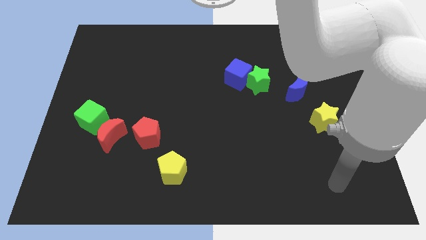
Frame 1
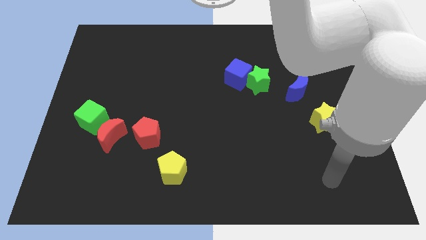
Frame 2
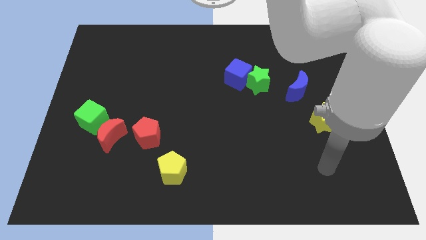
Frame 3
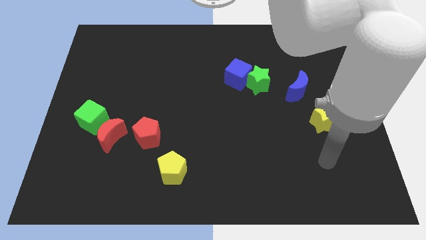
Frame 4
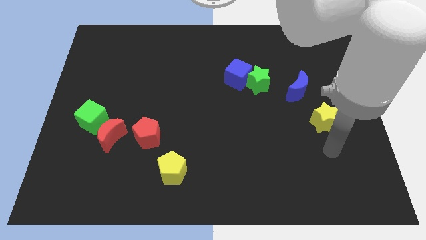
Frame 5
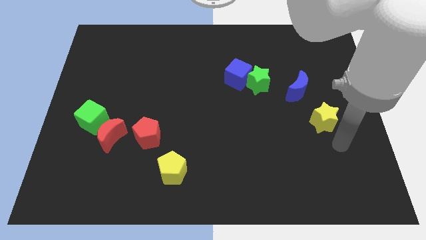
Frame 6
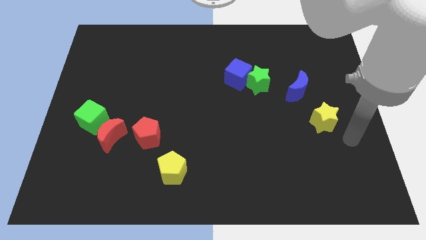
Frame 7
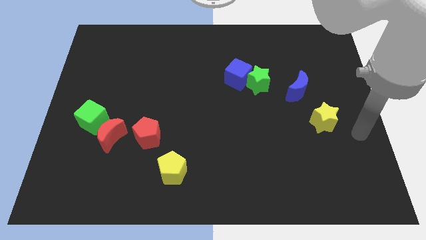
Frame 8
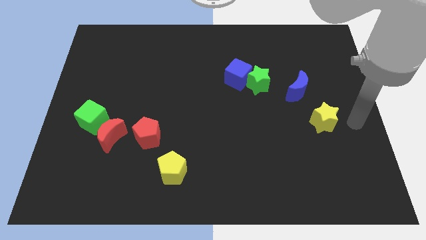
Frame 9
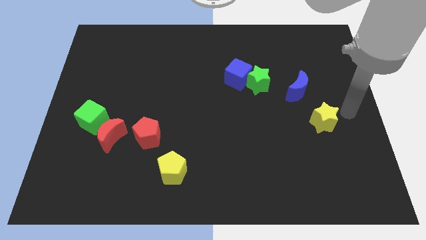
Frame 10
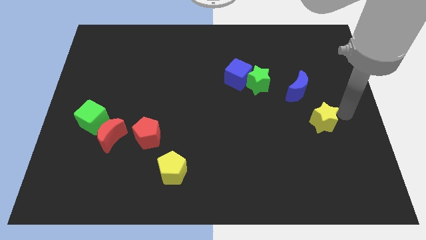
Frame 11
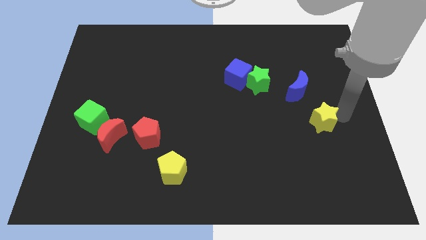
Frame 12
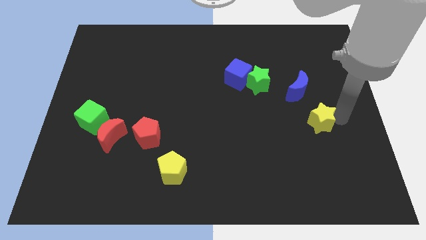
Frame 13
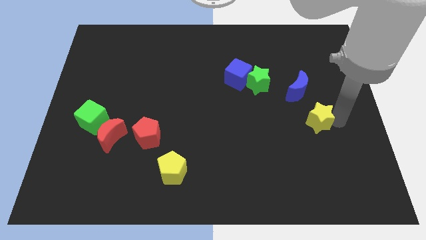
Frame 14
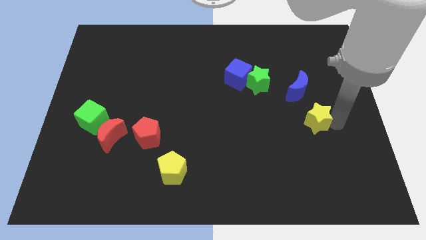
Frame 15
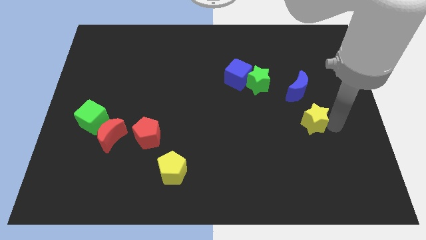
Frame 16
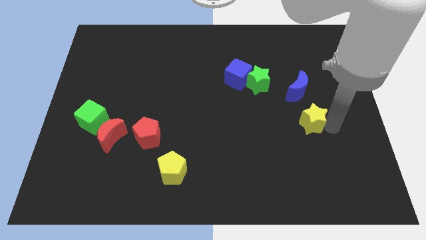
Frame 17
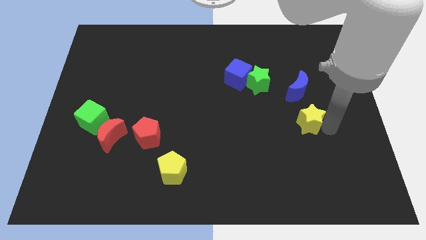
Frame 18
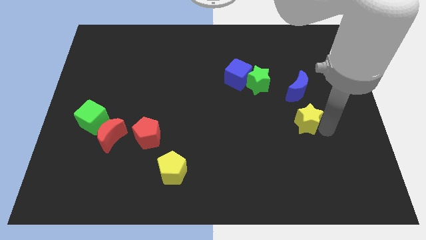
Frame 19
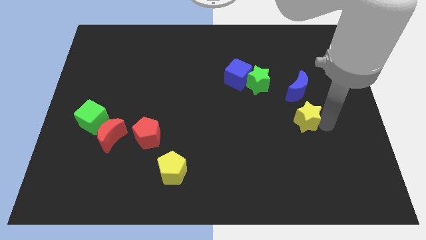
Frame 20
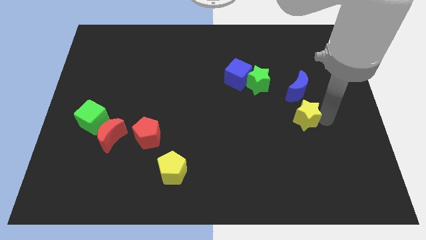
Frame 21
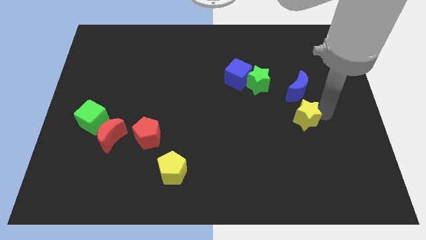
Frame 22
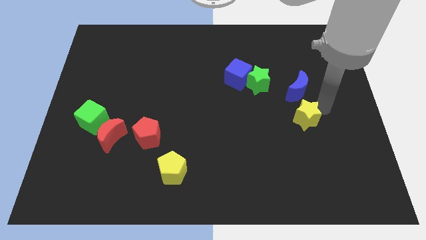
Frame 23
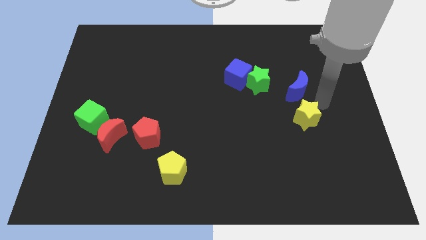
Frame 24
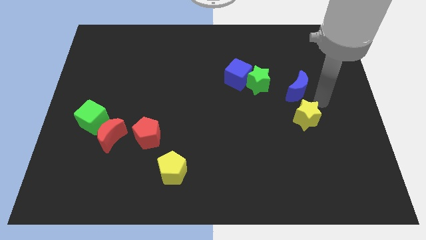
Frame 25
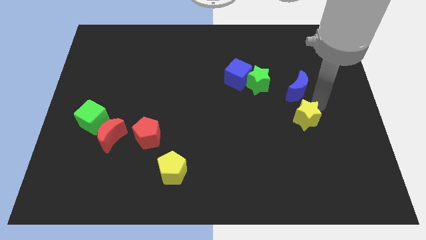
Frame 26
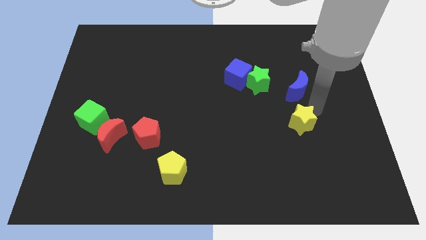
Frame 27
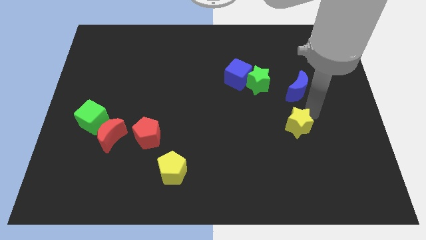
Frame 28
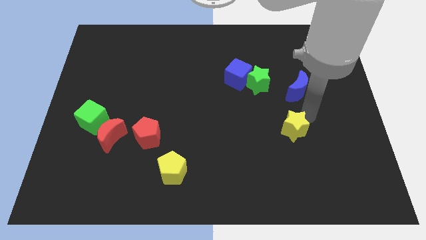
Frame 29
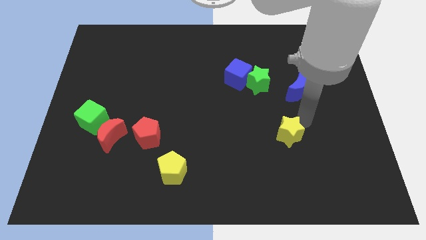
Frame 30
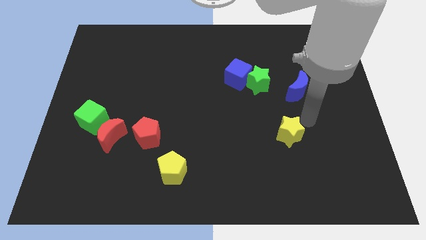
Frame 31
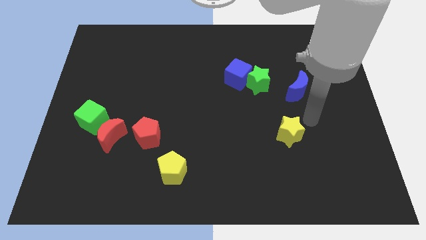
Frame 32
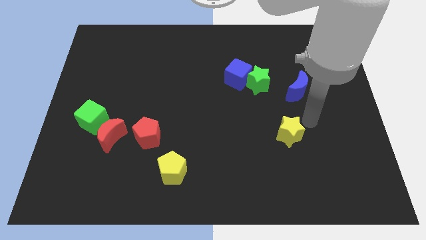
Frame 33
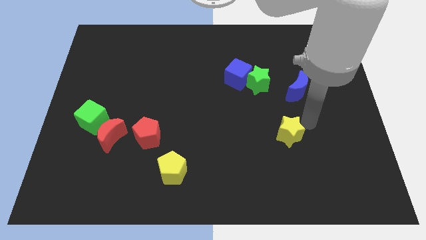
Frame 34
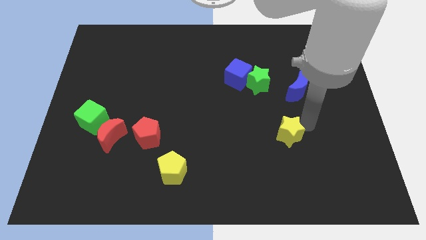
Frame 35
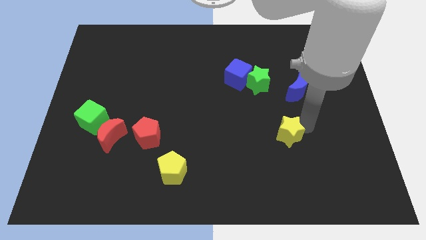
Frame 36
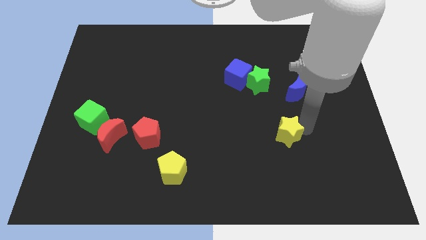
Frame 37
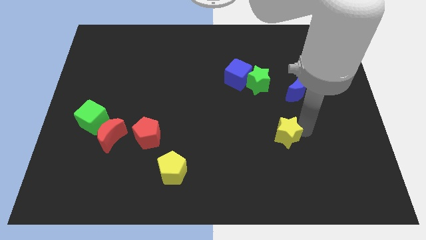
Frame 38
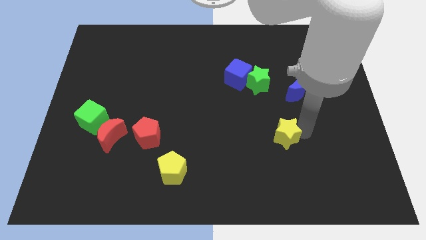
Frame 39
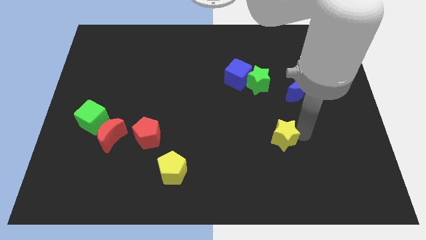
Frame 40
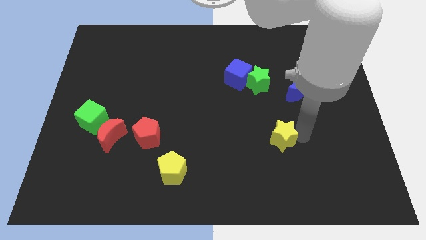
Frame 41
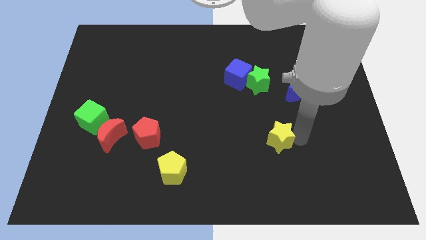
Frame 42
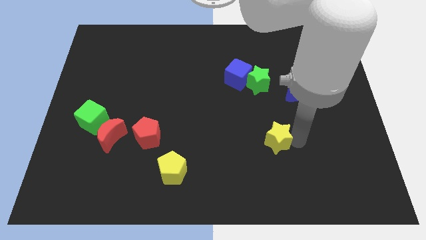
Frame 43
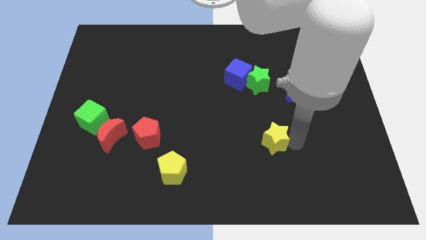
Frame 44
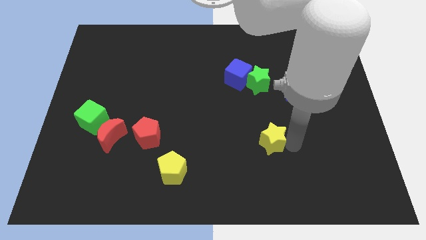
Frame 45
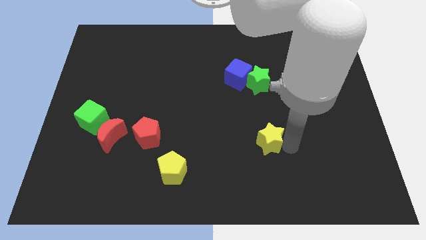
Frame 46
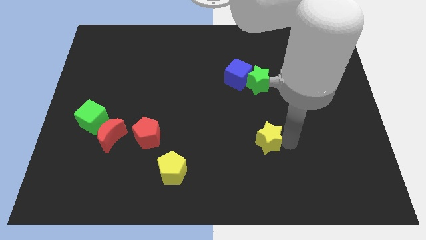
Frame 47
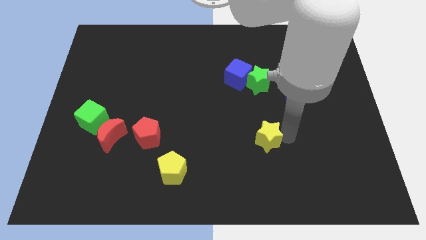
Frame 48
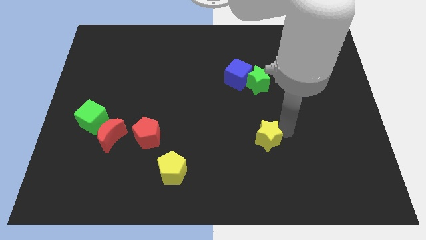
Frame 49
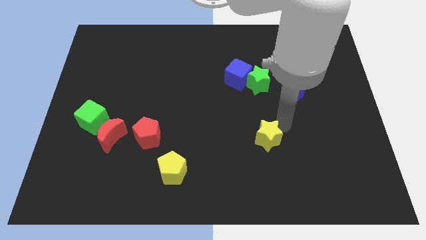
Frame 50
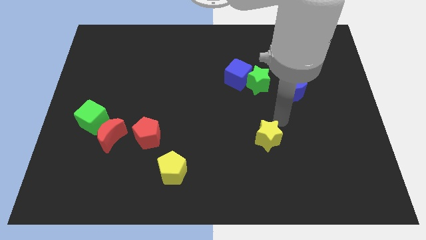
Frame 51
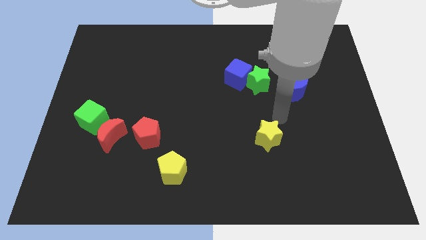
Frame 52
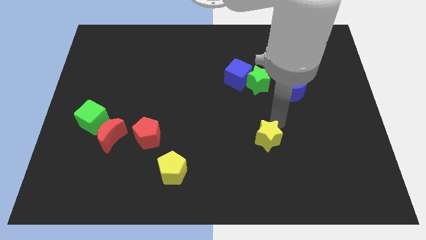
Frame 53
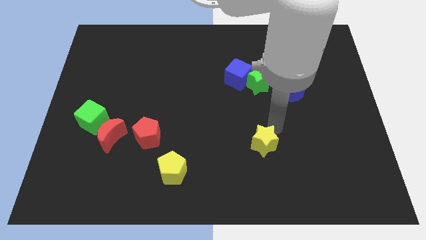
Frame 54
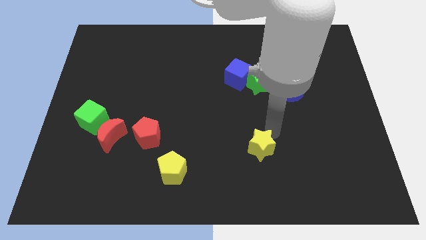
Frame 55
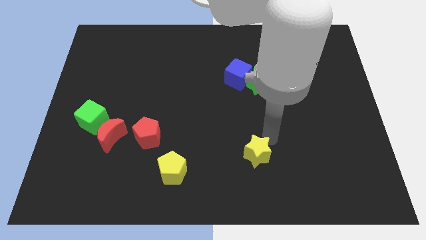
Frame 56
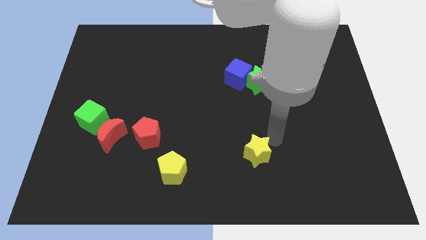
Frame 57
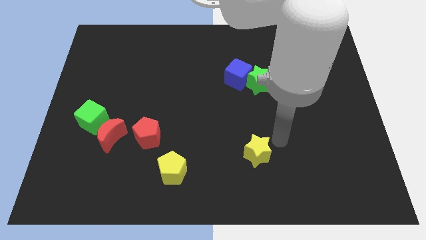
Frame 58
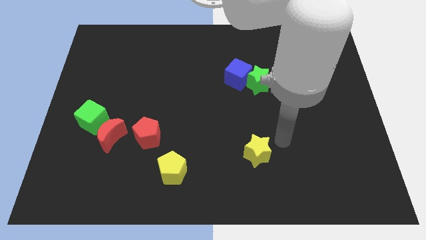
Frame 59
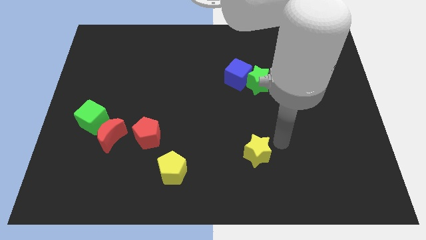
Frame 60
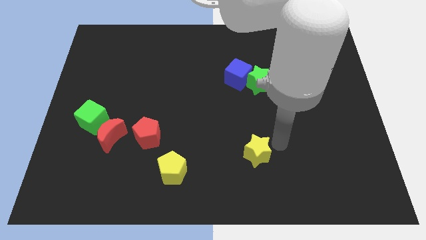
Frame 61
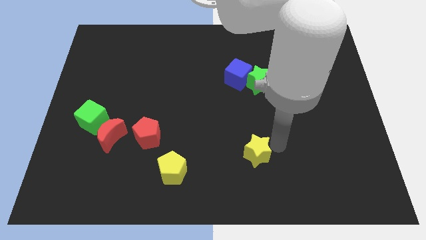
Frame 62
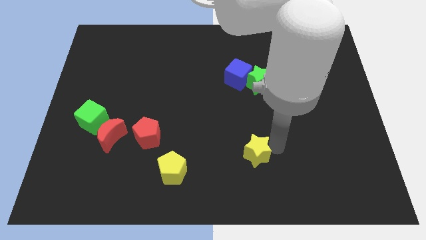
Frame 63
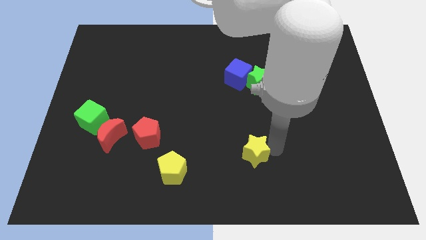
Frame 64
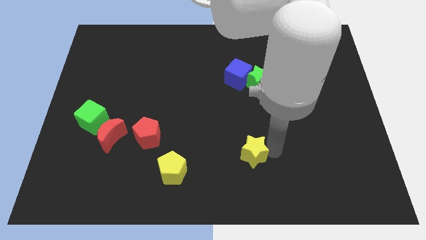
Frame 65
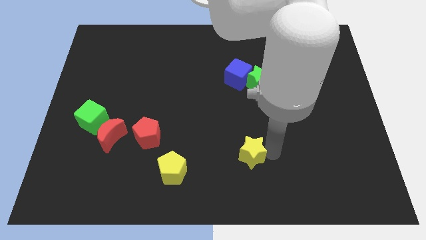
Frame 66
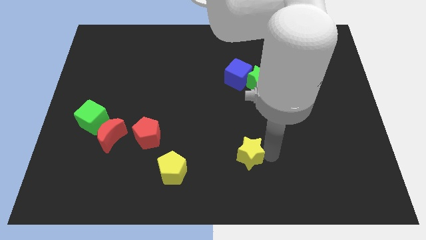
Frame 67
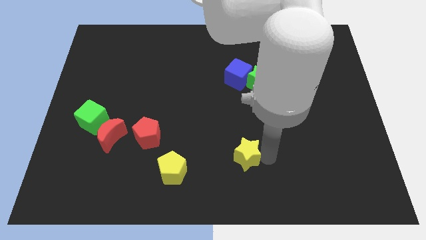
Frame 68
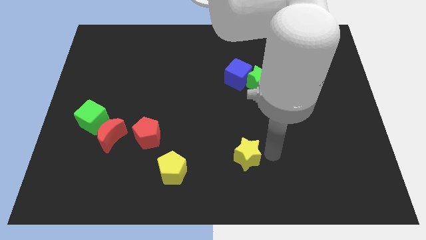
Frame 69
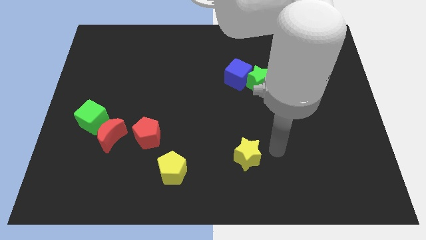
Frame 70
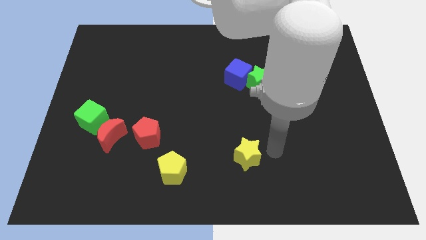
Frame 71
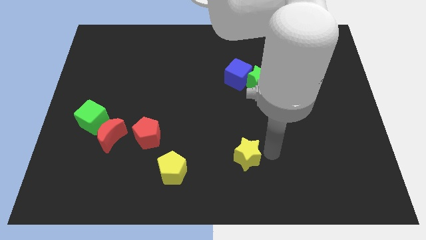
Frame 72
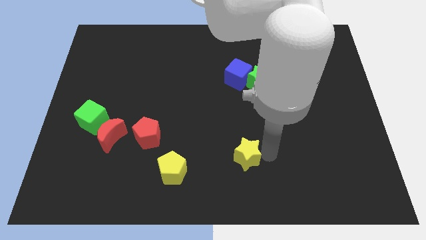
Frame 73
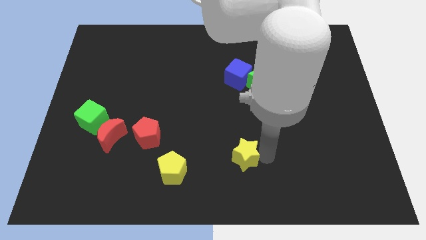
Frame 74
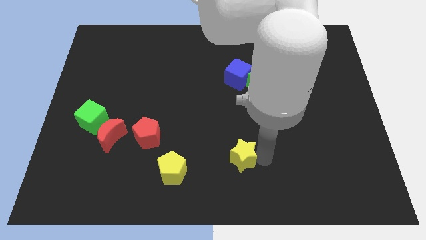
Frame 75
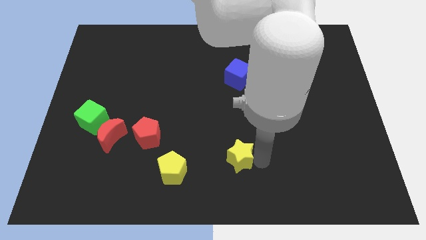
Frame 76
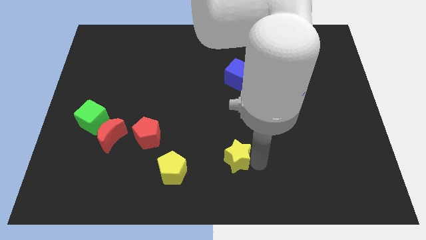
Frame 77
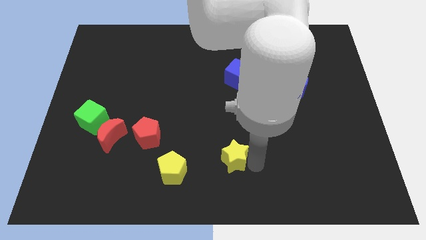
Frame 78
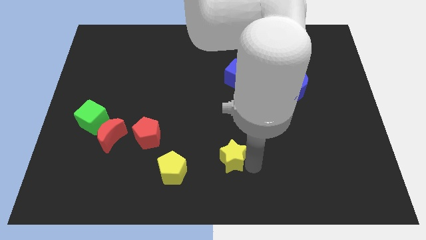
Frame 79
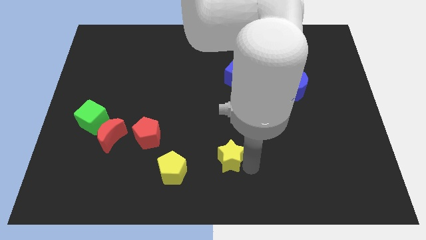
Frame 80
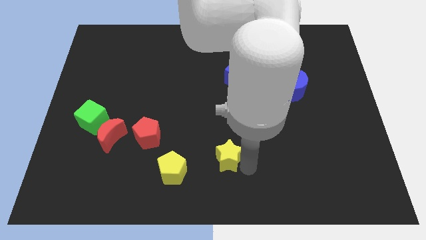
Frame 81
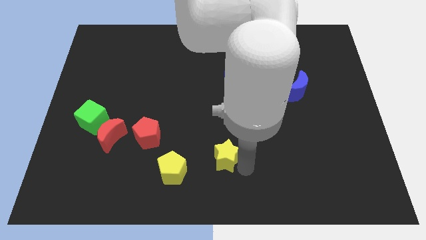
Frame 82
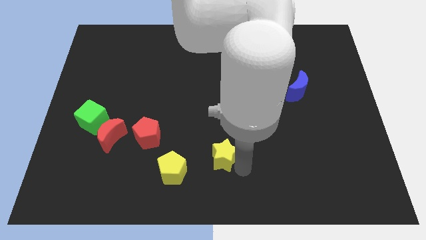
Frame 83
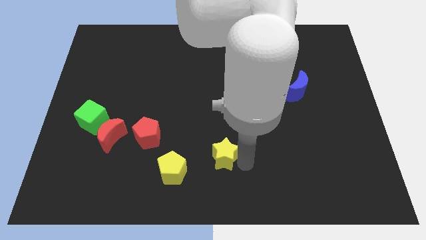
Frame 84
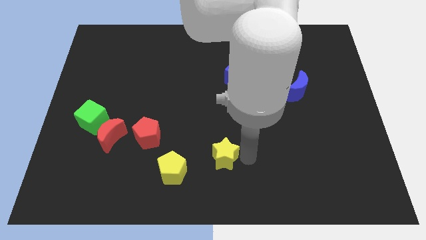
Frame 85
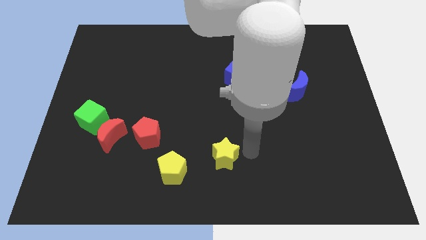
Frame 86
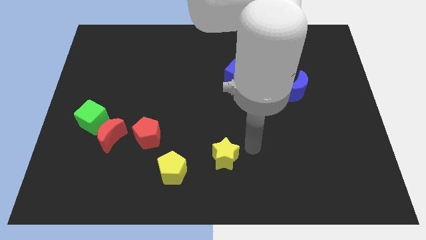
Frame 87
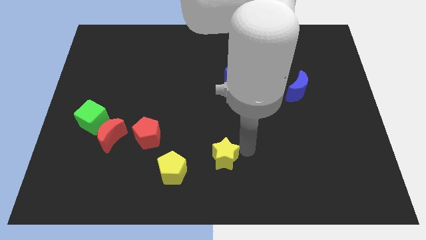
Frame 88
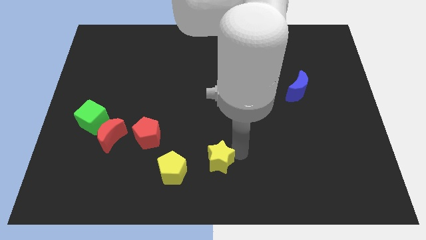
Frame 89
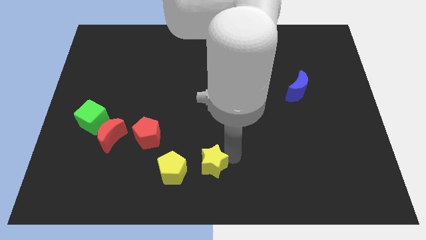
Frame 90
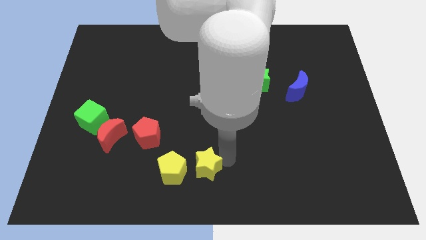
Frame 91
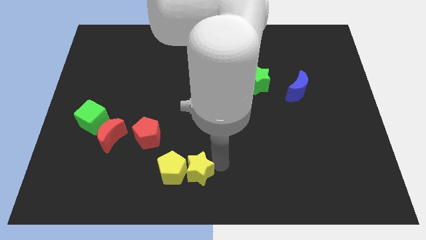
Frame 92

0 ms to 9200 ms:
move the yellow star to the yellow pentagon
